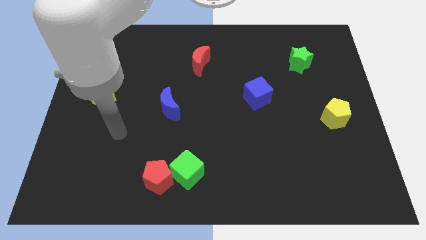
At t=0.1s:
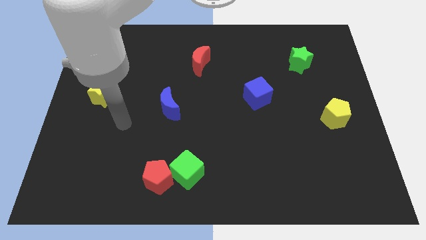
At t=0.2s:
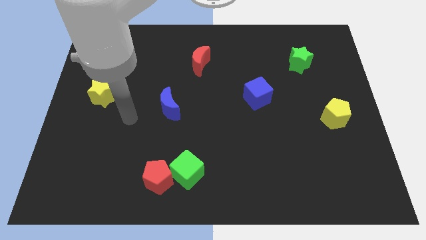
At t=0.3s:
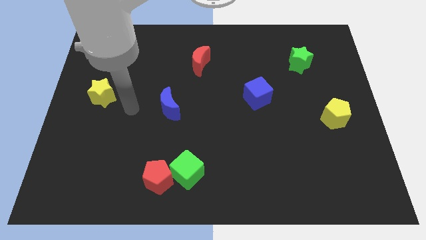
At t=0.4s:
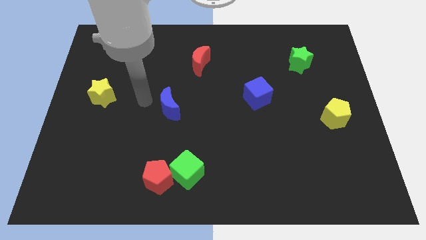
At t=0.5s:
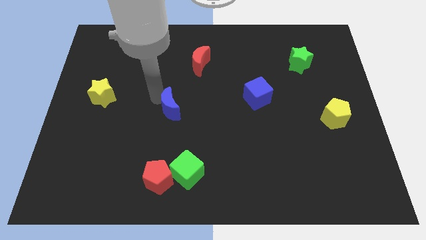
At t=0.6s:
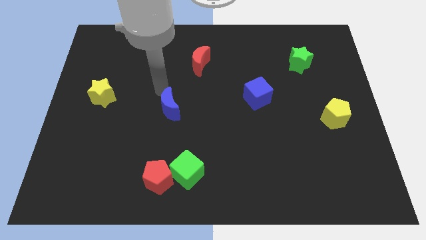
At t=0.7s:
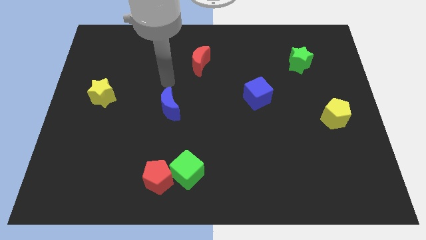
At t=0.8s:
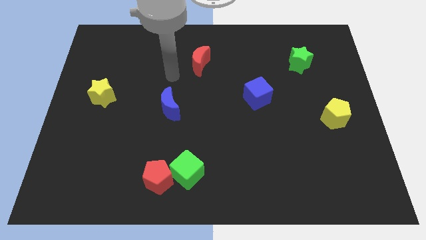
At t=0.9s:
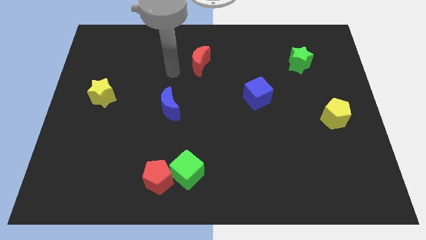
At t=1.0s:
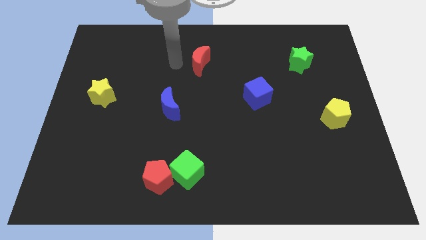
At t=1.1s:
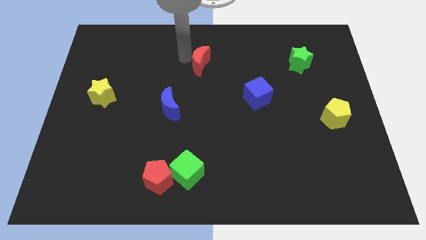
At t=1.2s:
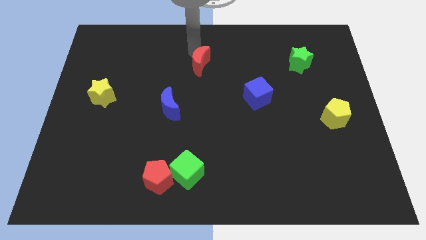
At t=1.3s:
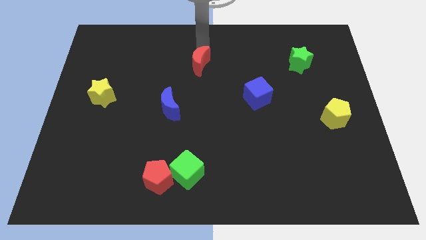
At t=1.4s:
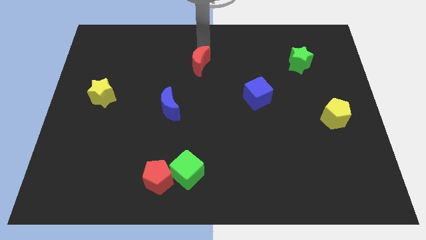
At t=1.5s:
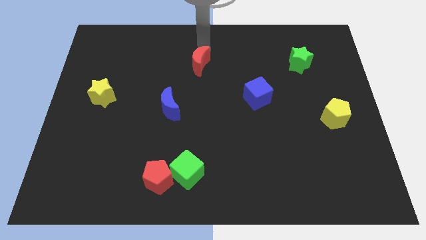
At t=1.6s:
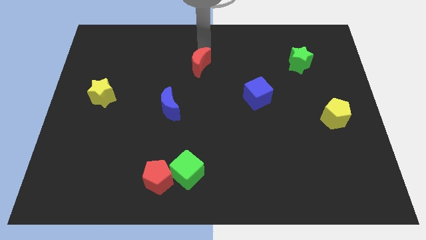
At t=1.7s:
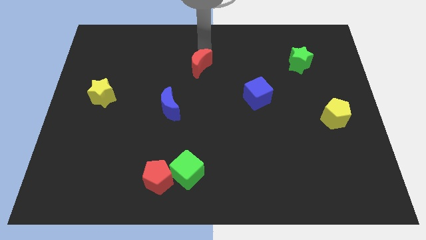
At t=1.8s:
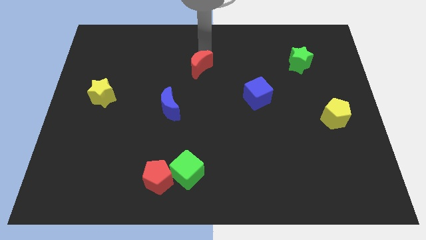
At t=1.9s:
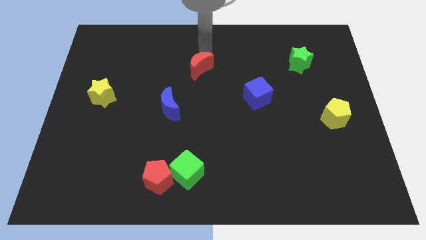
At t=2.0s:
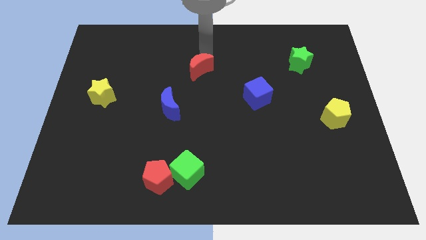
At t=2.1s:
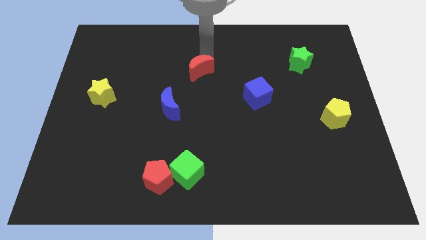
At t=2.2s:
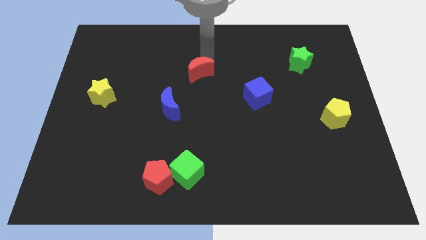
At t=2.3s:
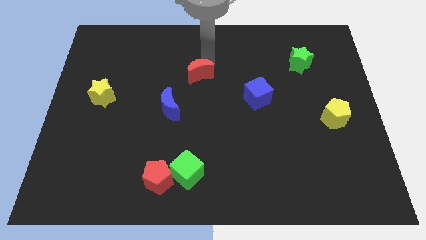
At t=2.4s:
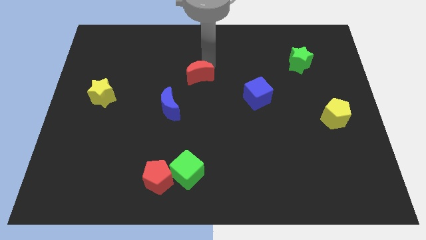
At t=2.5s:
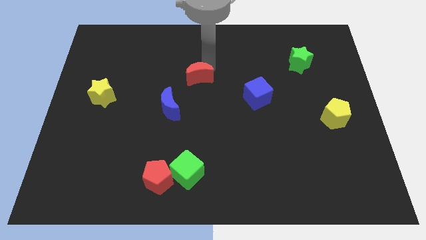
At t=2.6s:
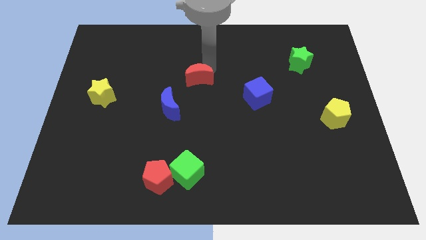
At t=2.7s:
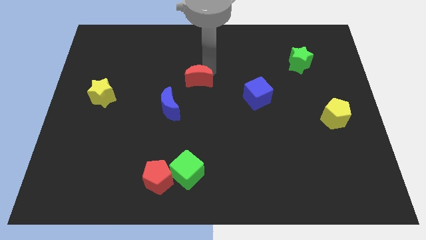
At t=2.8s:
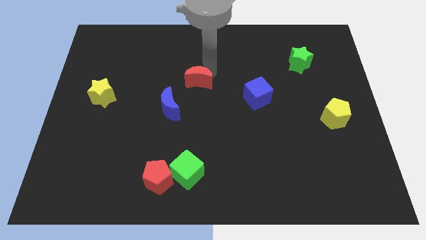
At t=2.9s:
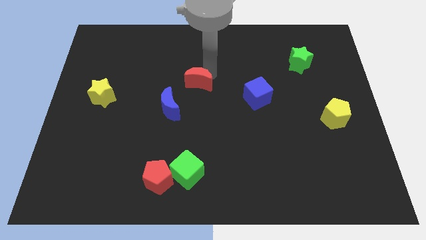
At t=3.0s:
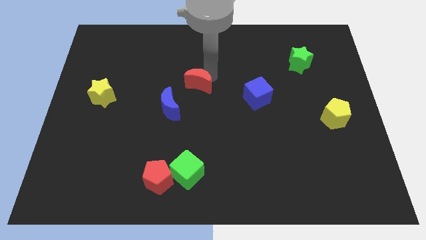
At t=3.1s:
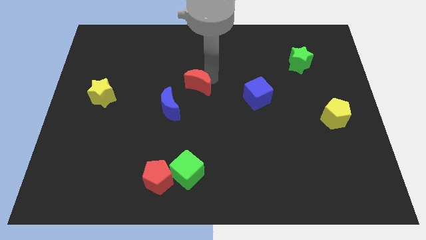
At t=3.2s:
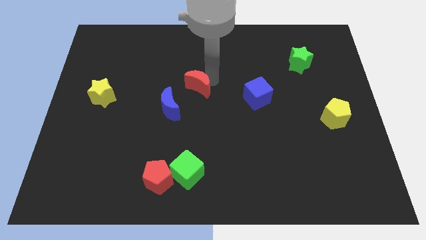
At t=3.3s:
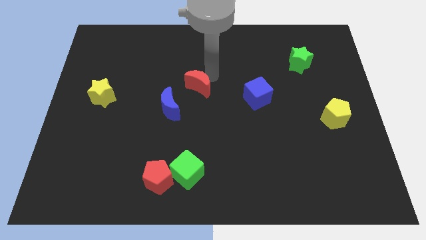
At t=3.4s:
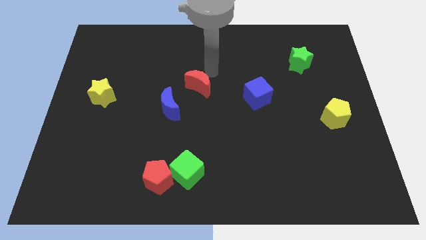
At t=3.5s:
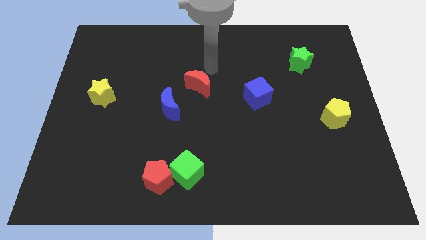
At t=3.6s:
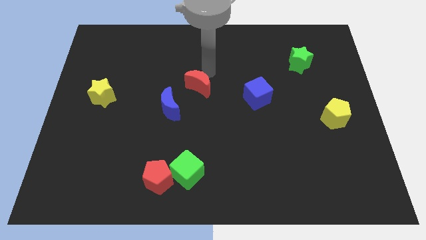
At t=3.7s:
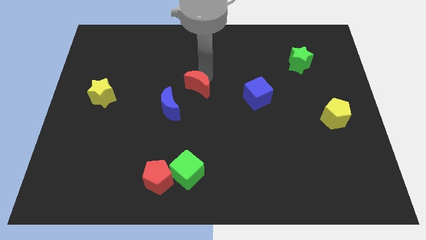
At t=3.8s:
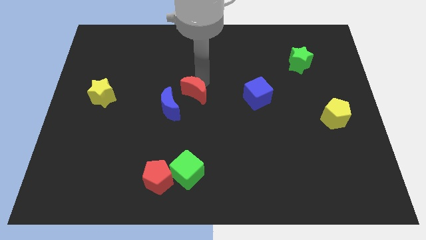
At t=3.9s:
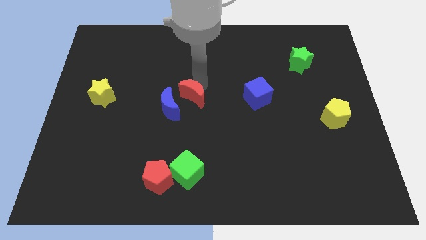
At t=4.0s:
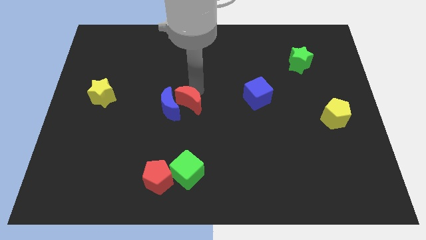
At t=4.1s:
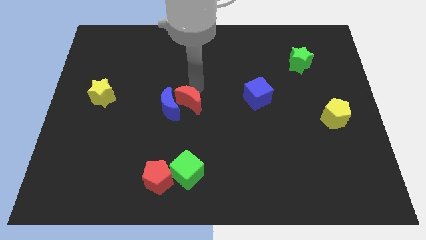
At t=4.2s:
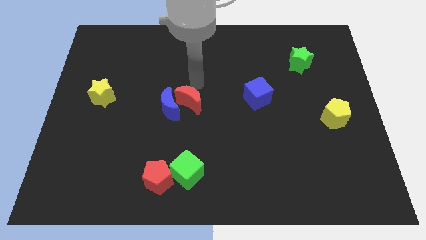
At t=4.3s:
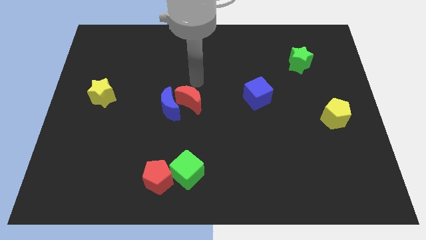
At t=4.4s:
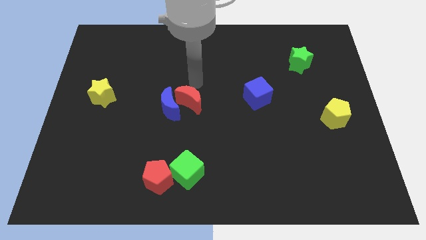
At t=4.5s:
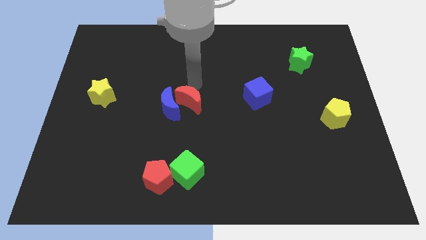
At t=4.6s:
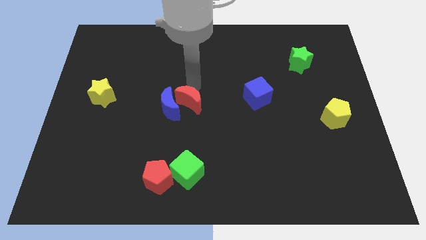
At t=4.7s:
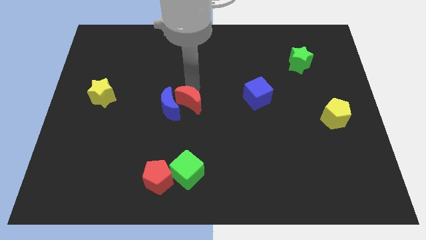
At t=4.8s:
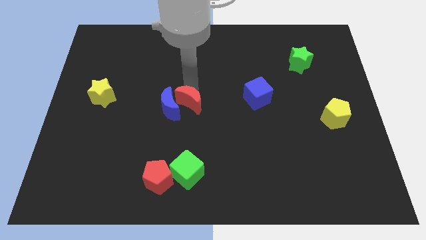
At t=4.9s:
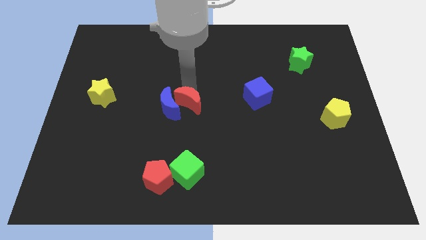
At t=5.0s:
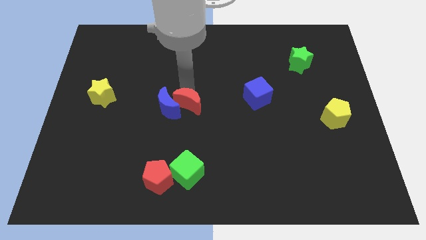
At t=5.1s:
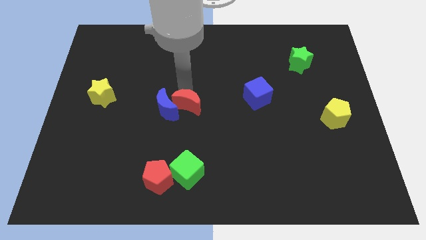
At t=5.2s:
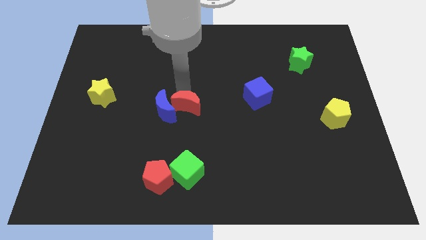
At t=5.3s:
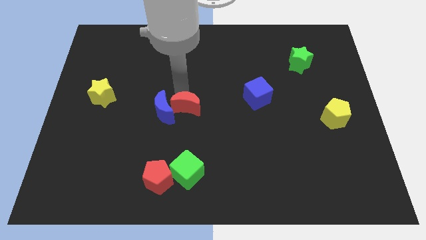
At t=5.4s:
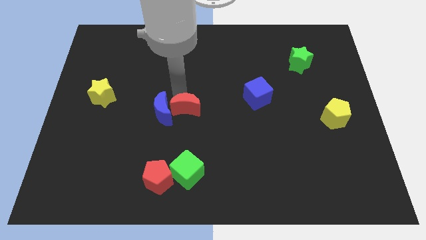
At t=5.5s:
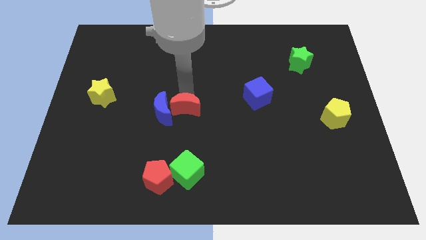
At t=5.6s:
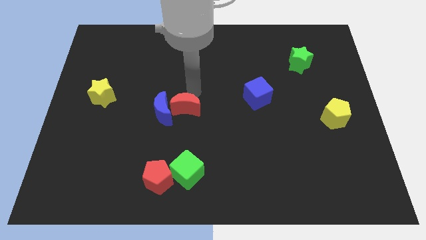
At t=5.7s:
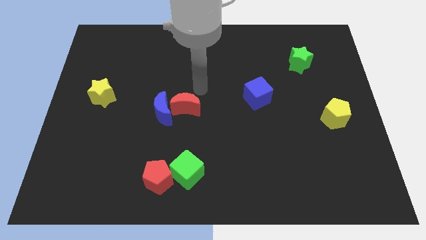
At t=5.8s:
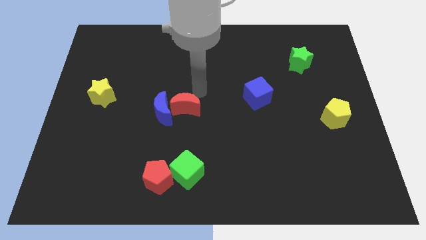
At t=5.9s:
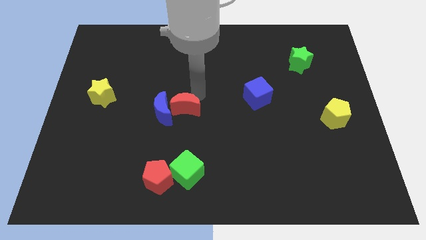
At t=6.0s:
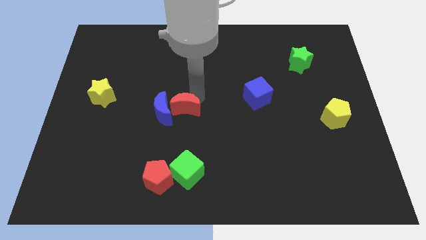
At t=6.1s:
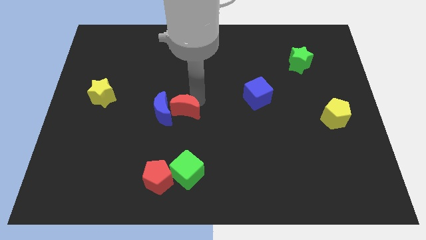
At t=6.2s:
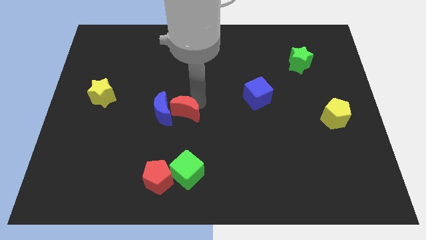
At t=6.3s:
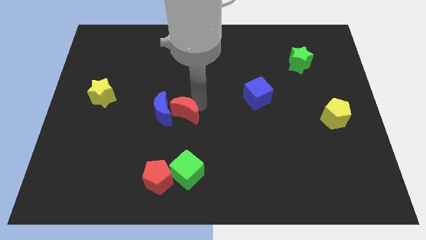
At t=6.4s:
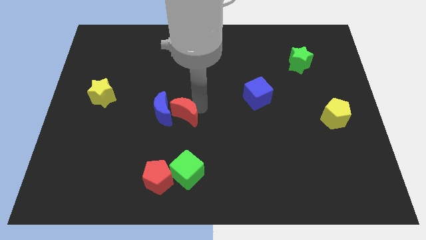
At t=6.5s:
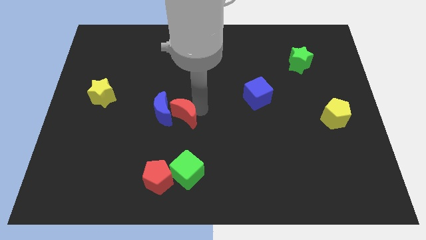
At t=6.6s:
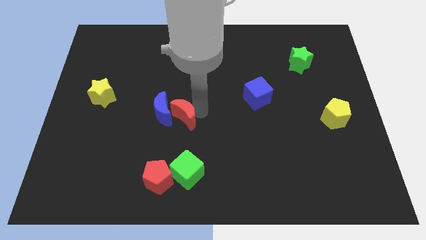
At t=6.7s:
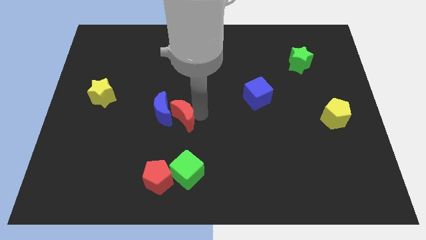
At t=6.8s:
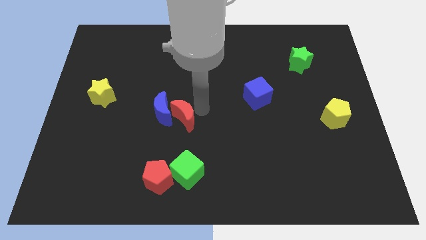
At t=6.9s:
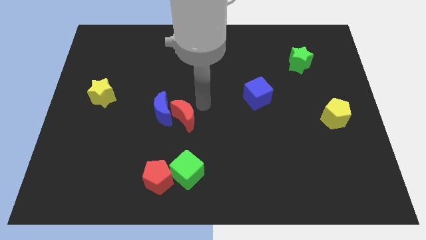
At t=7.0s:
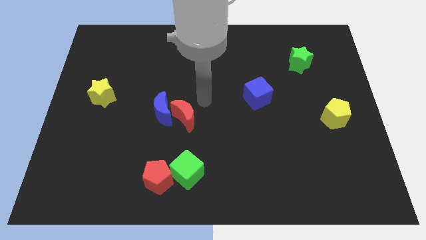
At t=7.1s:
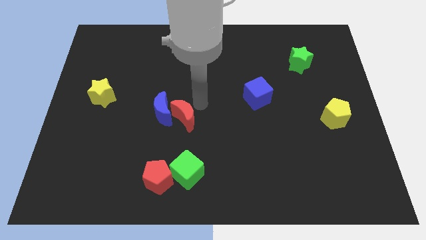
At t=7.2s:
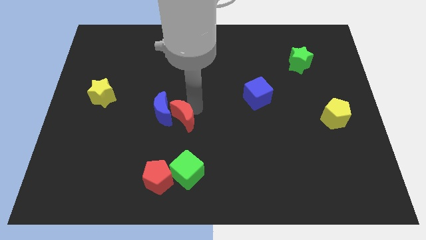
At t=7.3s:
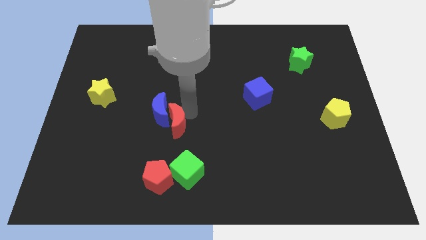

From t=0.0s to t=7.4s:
push the red moon to the top of the red pentagon

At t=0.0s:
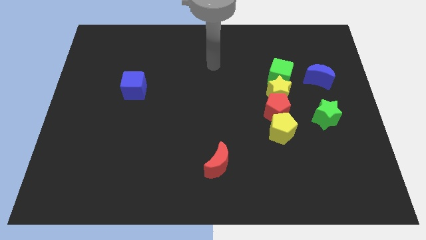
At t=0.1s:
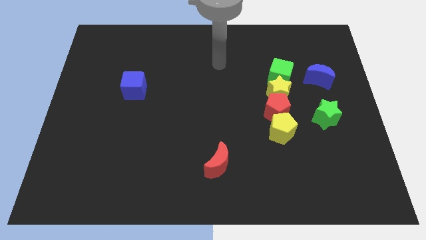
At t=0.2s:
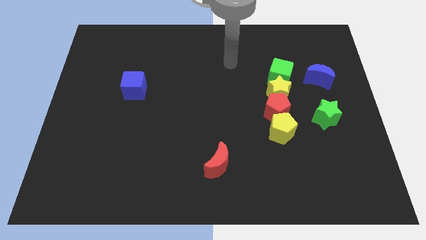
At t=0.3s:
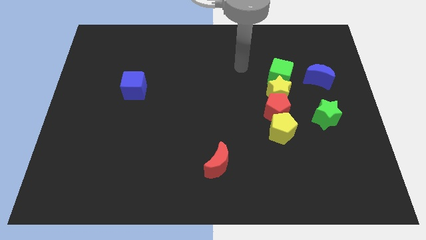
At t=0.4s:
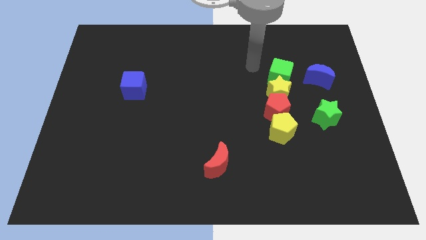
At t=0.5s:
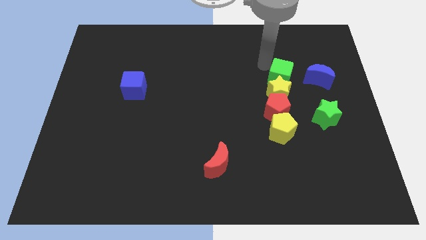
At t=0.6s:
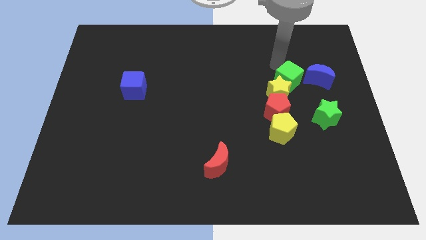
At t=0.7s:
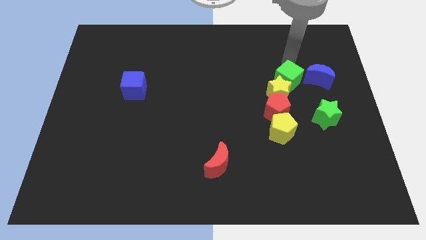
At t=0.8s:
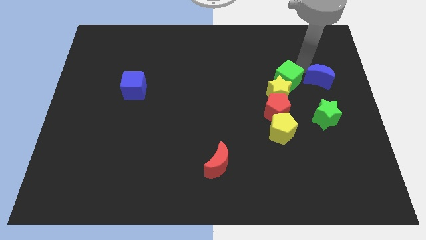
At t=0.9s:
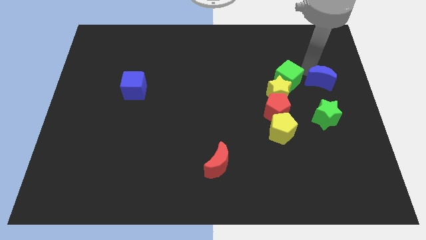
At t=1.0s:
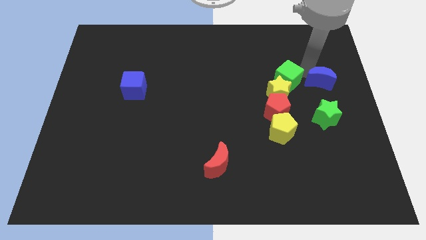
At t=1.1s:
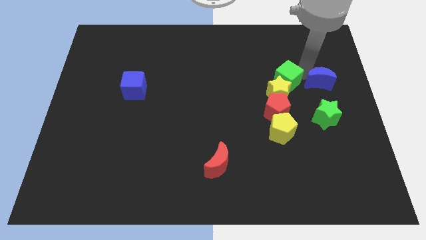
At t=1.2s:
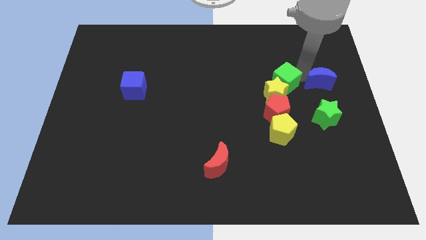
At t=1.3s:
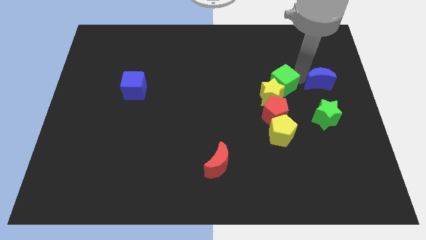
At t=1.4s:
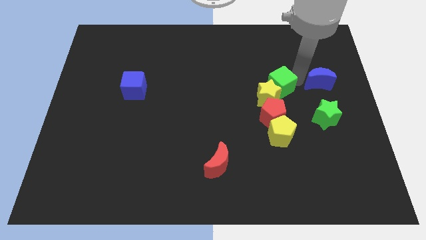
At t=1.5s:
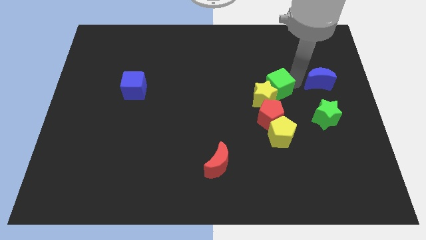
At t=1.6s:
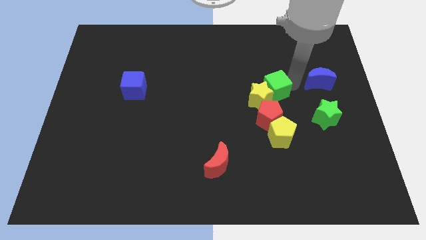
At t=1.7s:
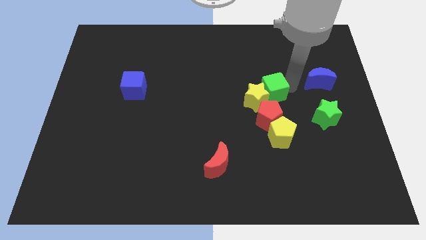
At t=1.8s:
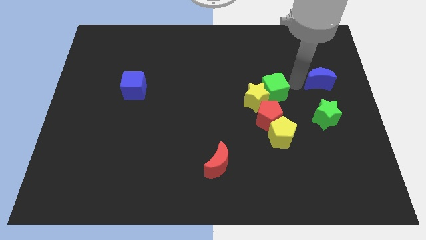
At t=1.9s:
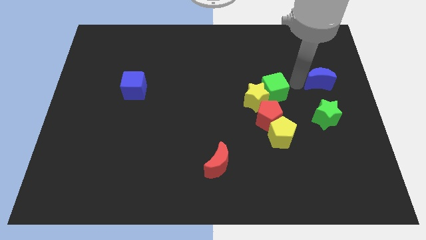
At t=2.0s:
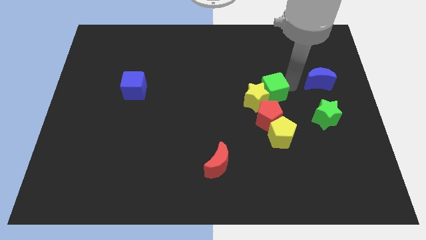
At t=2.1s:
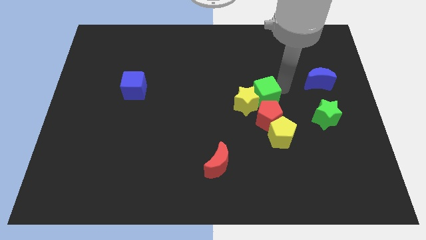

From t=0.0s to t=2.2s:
put the green cube to the top left side of the red pentagon
